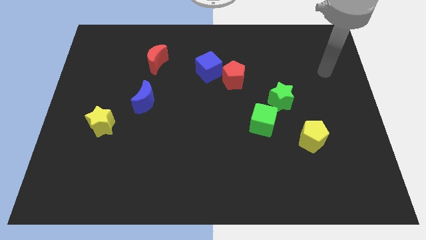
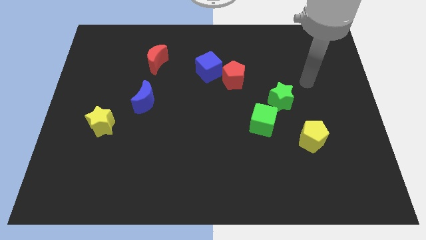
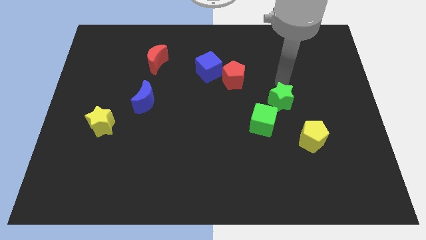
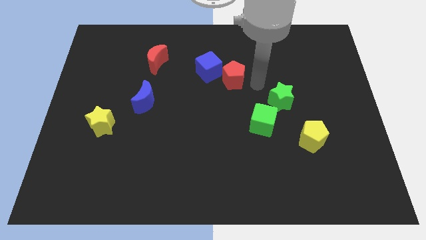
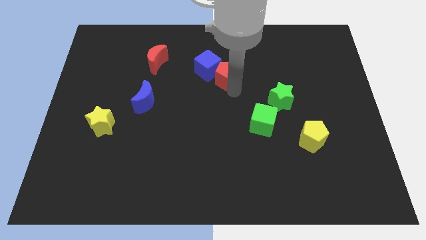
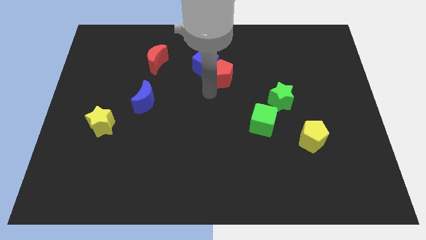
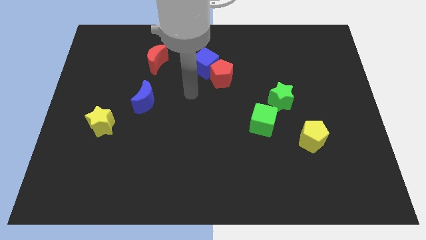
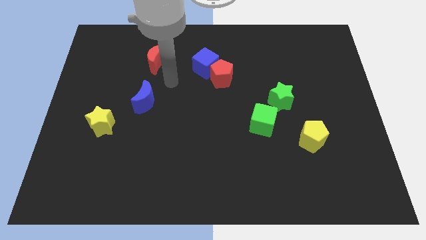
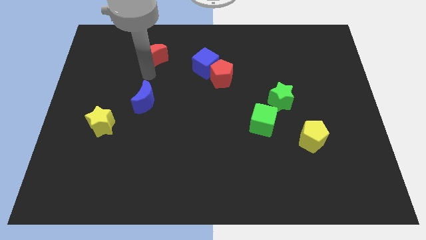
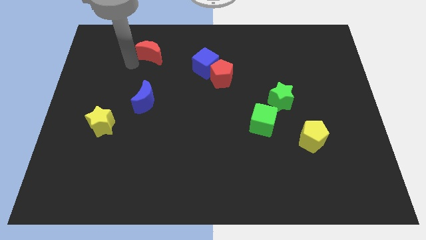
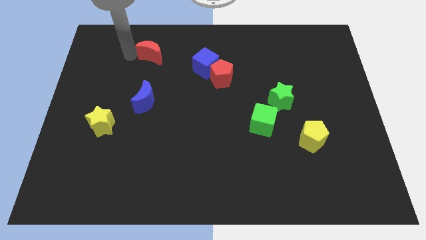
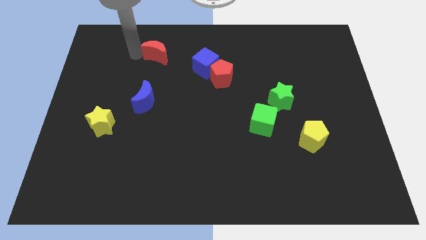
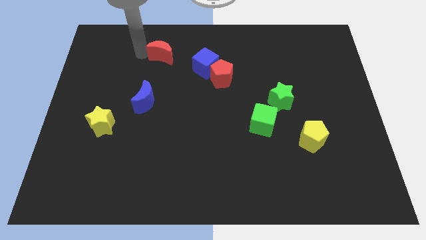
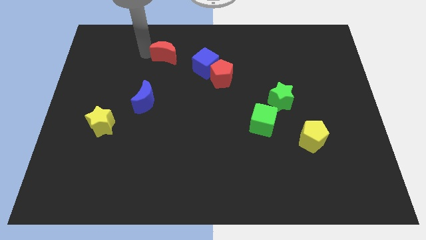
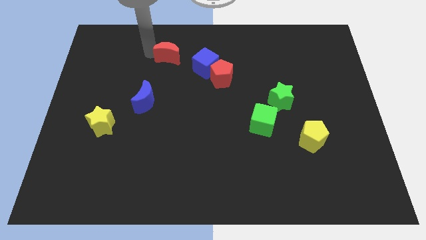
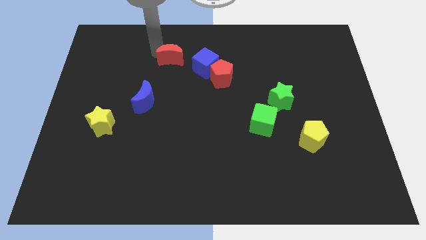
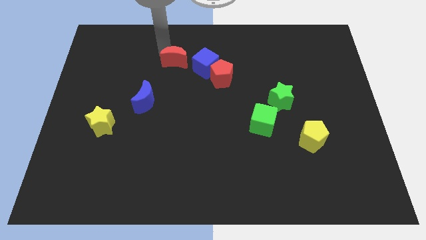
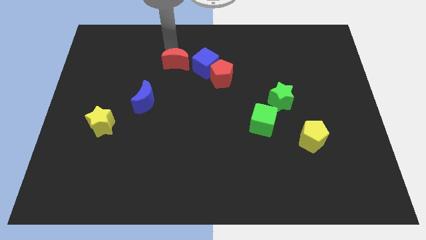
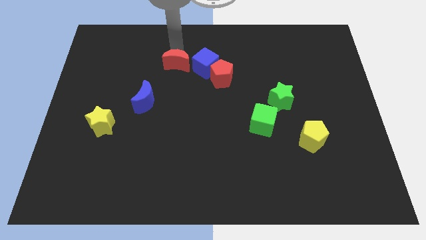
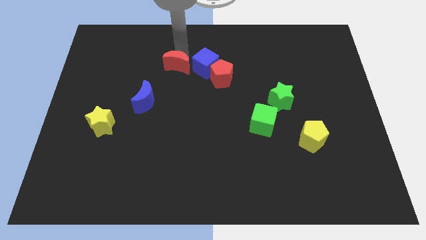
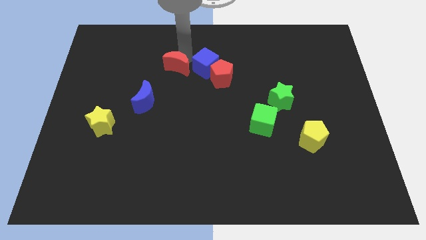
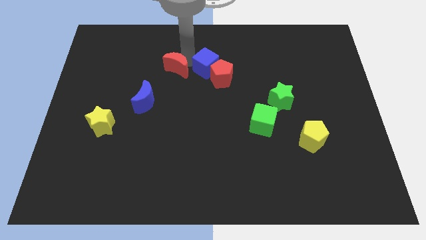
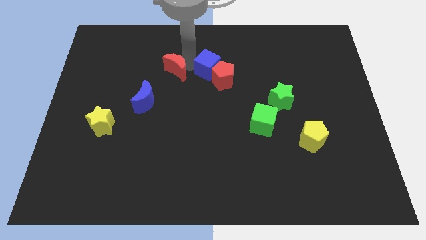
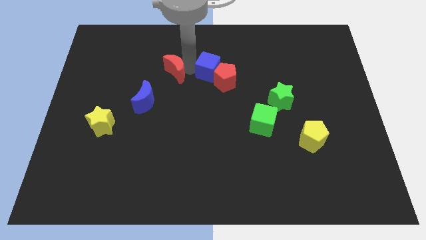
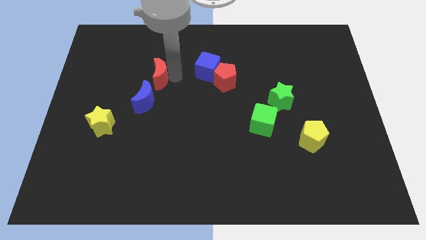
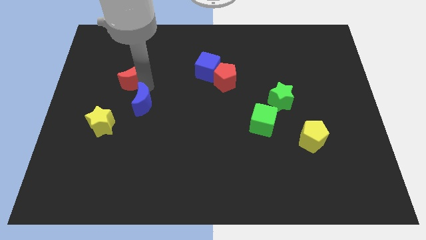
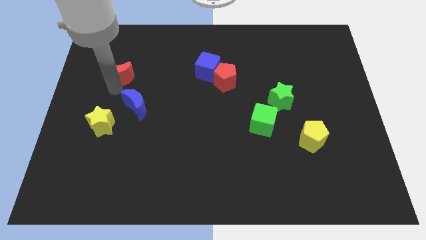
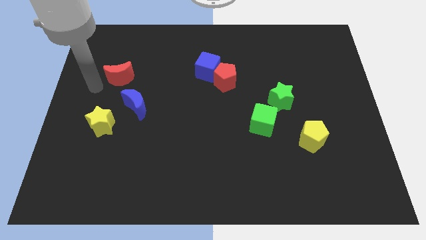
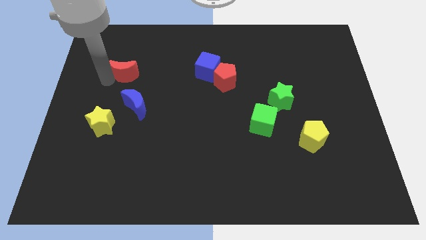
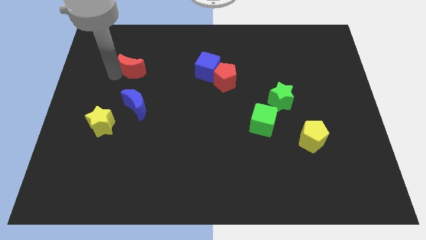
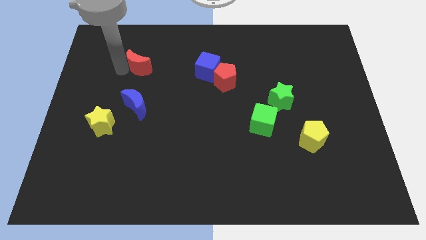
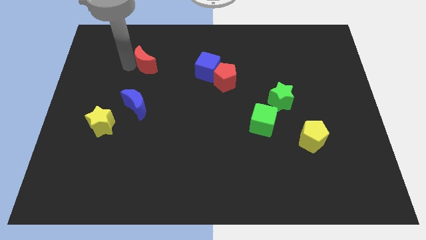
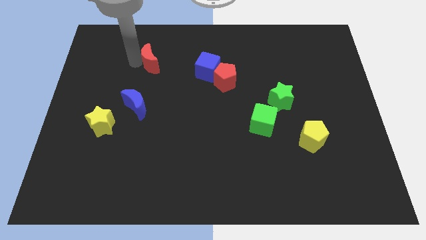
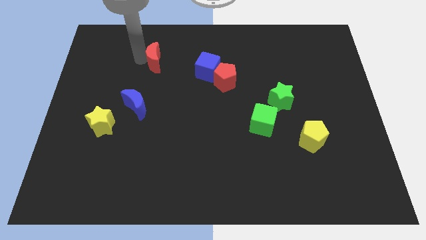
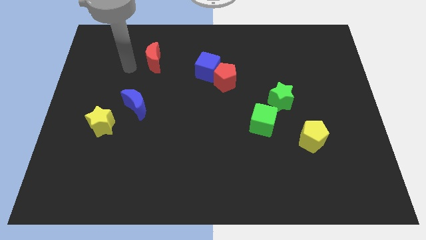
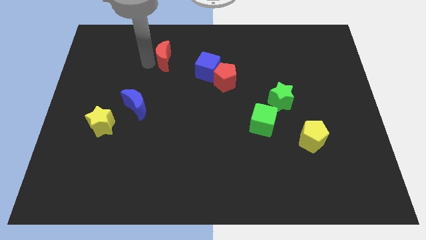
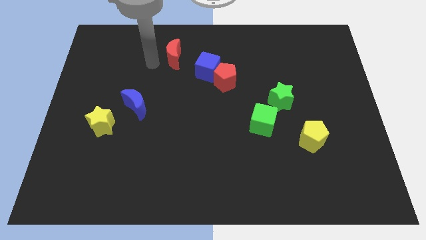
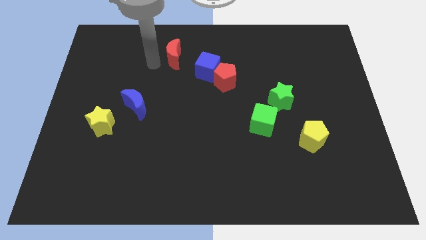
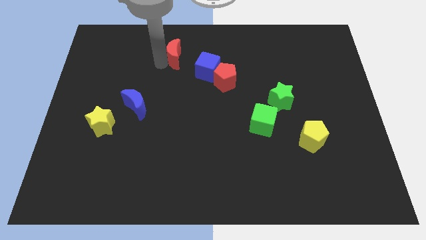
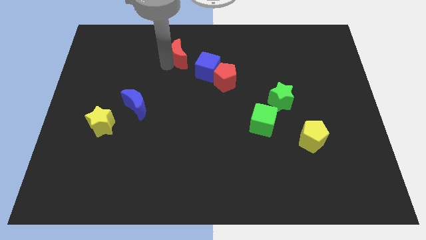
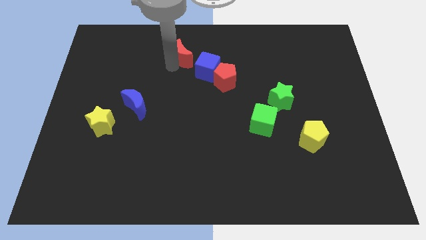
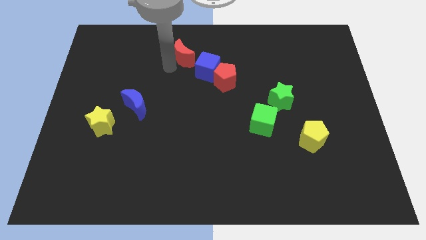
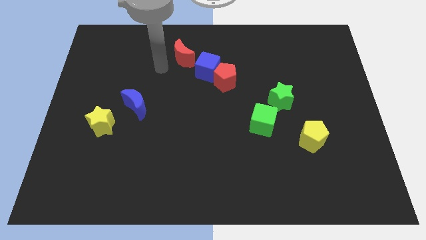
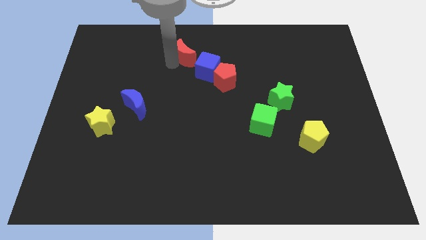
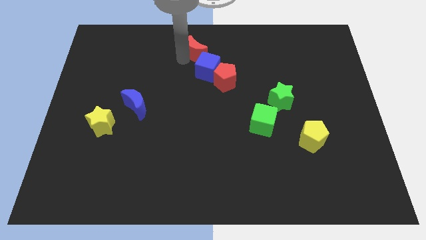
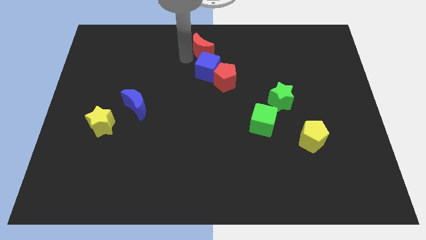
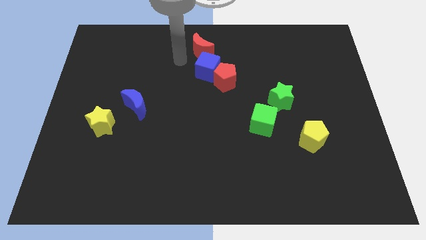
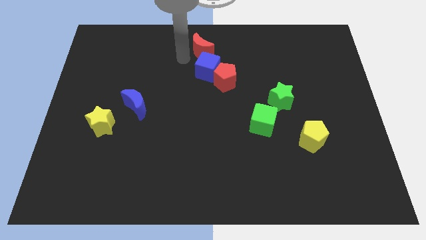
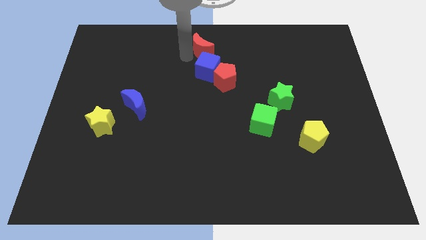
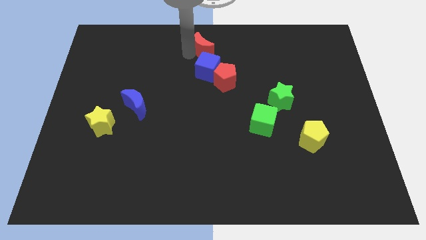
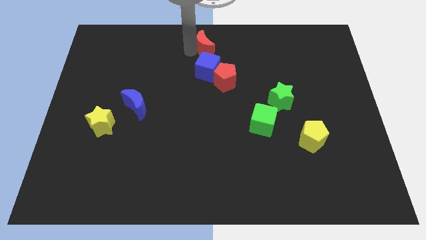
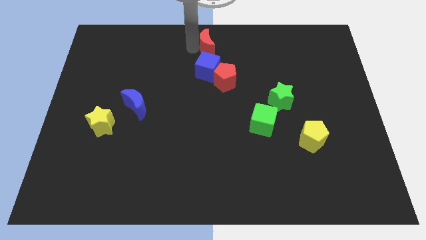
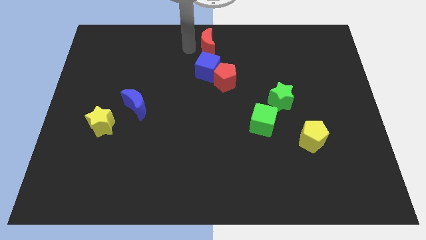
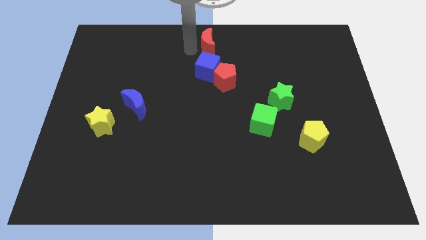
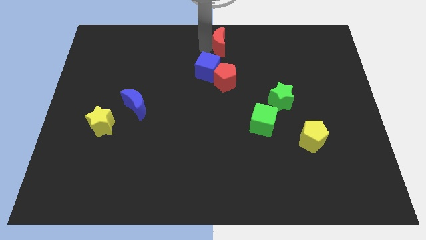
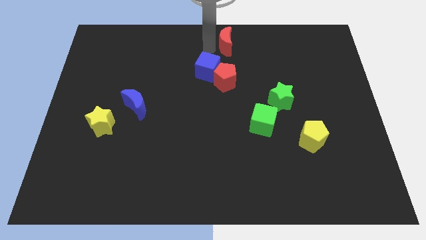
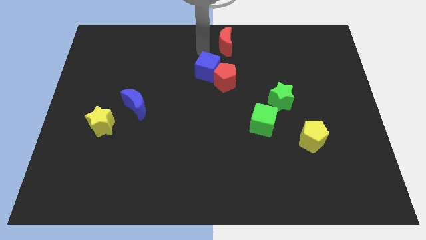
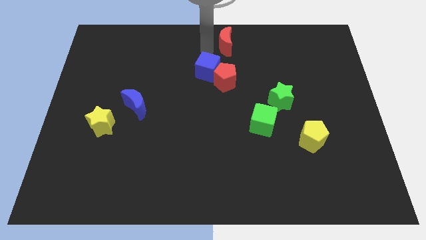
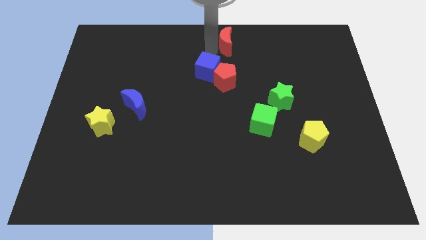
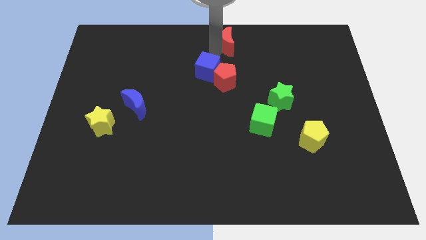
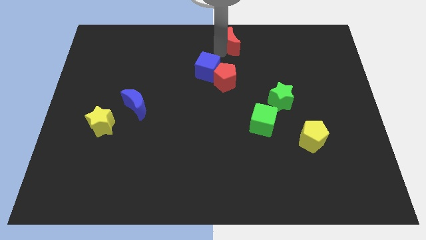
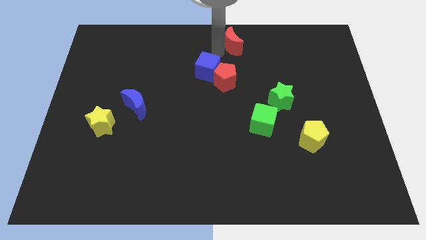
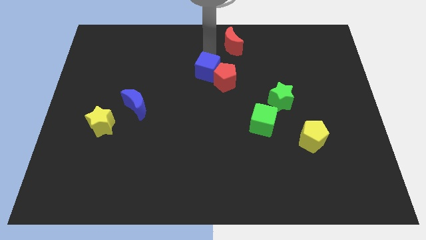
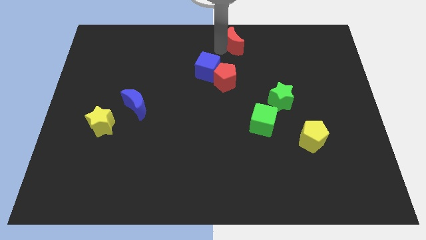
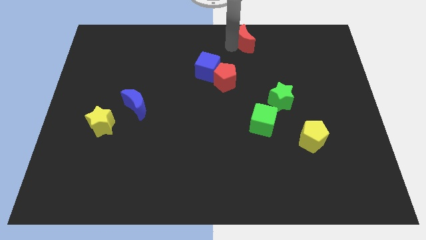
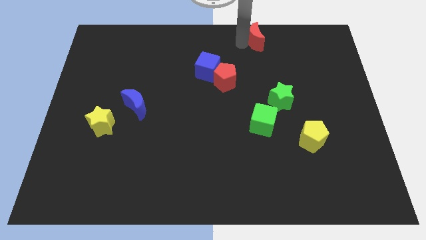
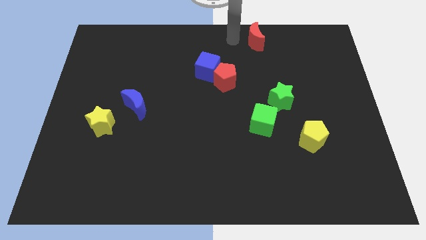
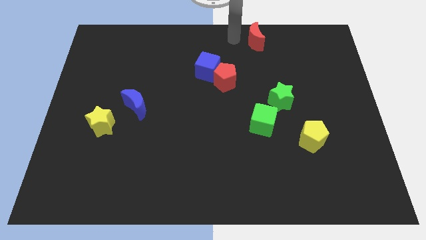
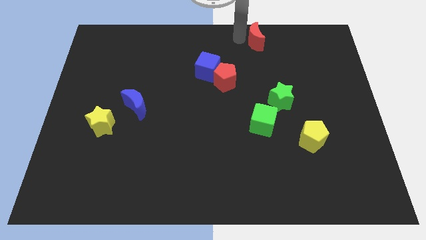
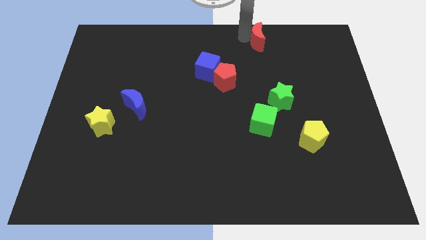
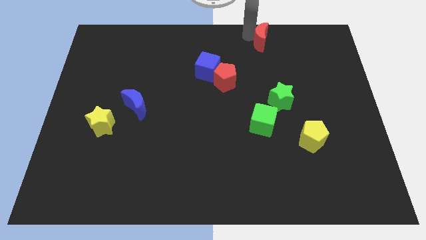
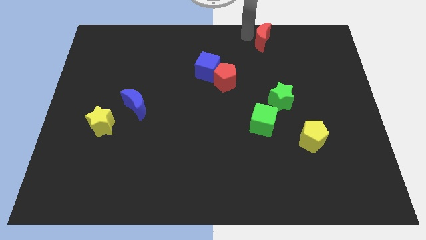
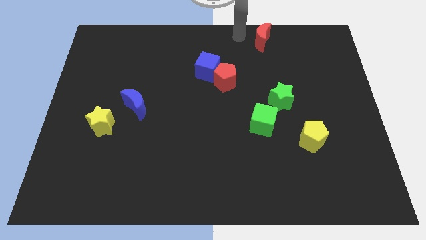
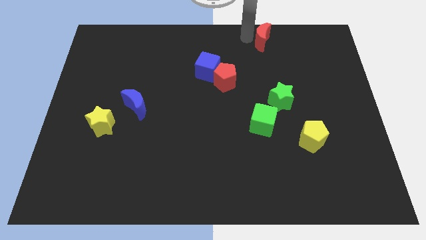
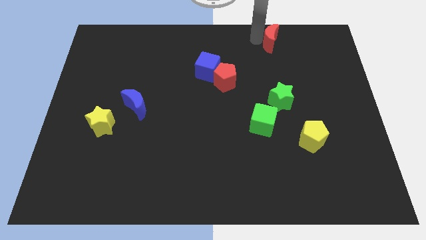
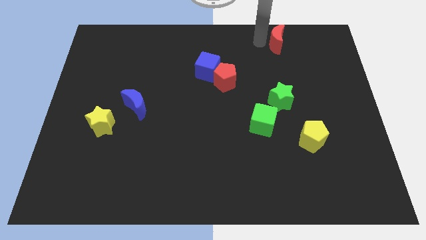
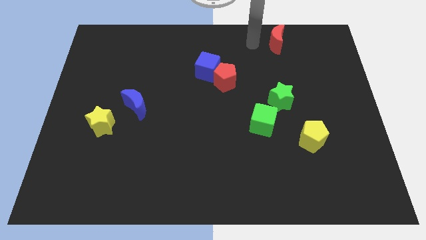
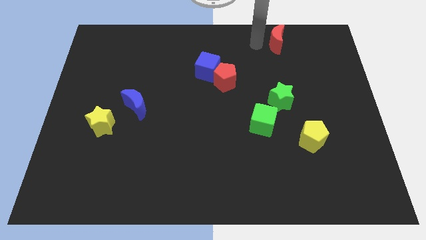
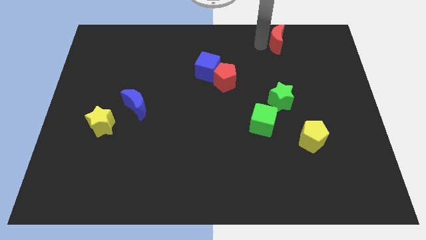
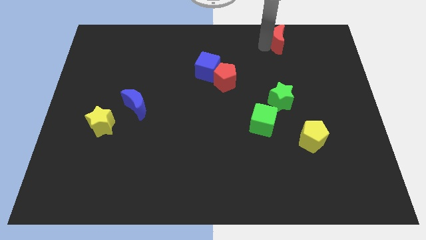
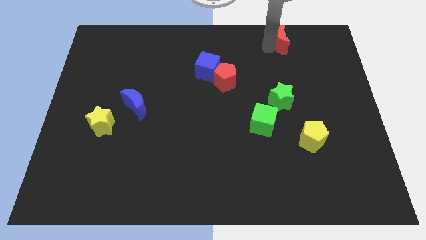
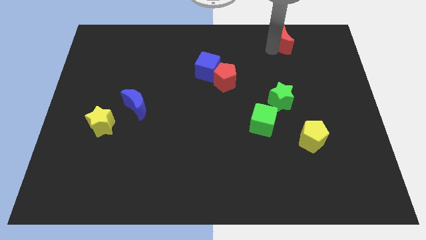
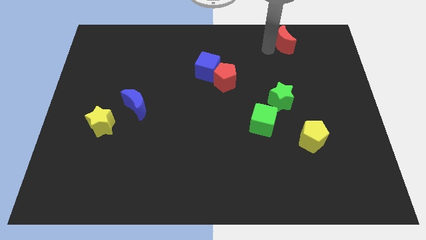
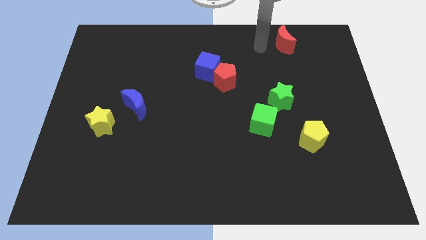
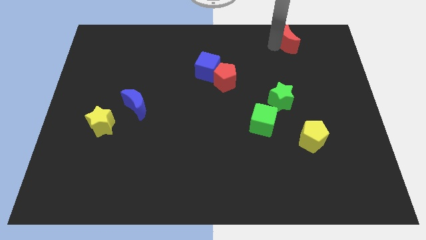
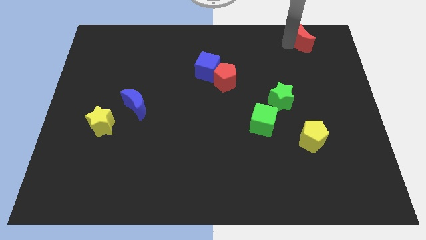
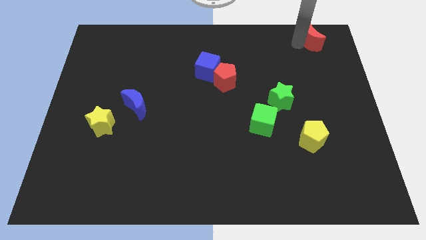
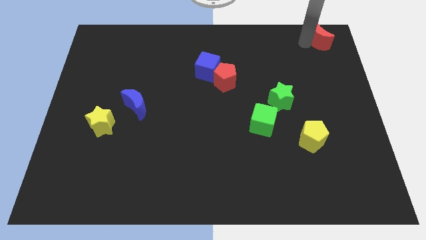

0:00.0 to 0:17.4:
move the red moon to the top right of the board
